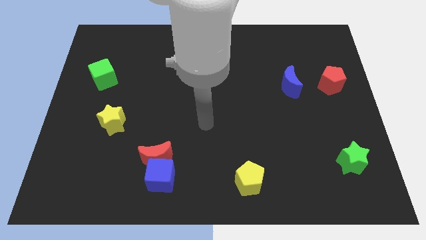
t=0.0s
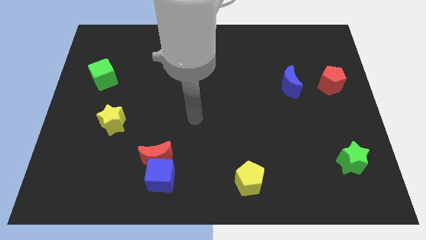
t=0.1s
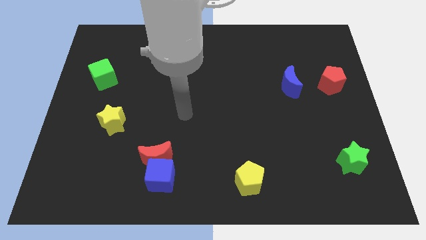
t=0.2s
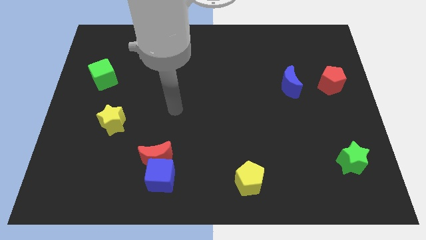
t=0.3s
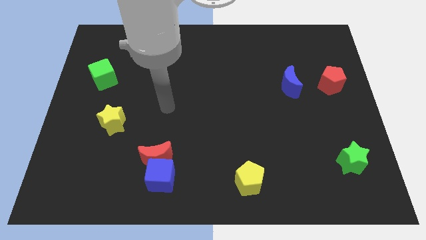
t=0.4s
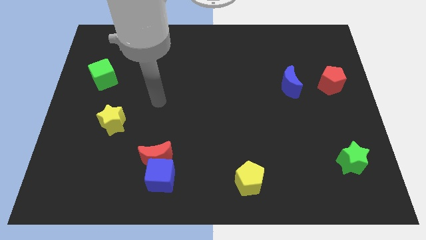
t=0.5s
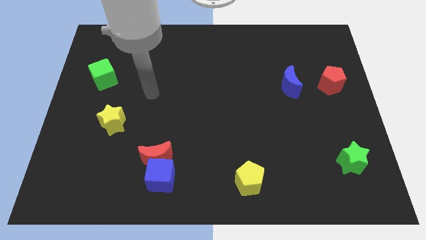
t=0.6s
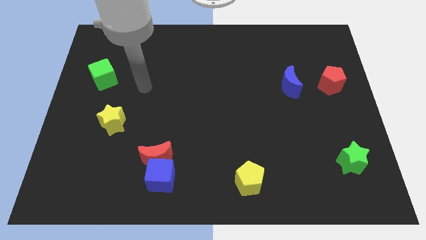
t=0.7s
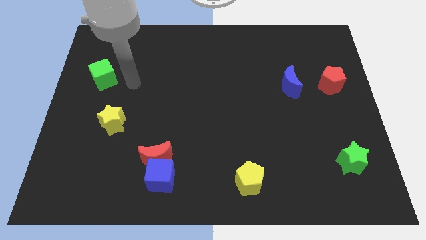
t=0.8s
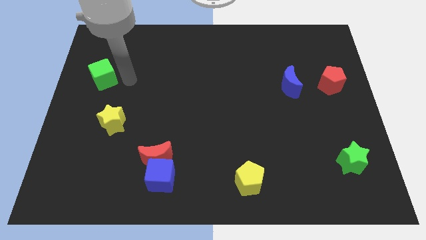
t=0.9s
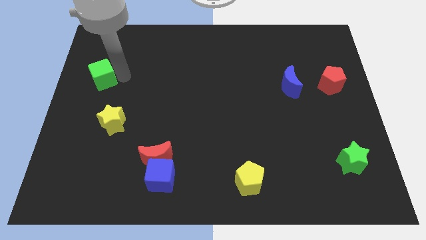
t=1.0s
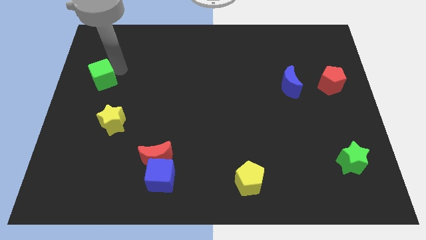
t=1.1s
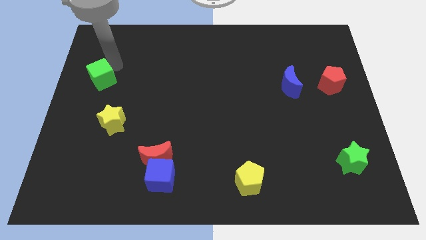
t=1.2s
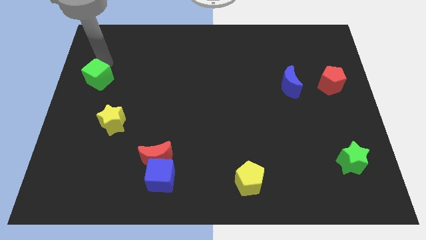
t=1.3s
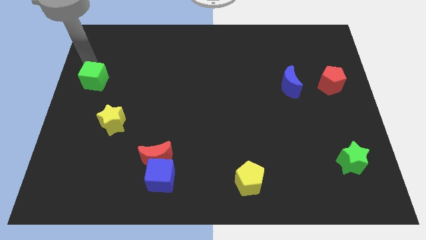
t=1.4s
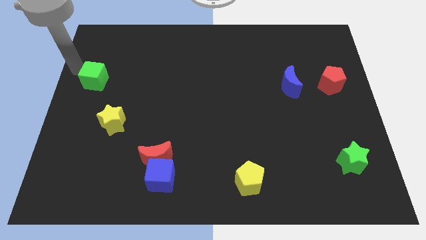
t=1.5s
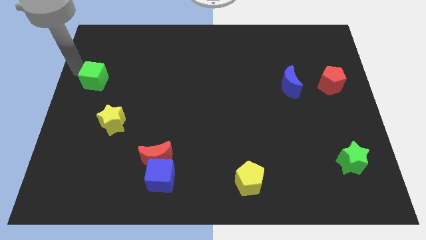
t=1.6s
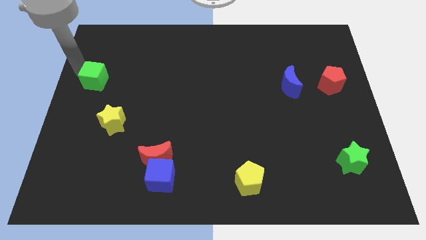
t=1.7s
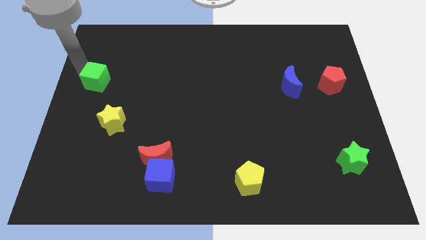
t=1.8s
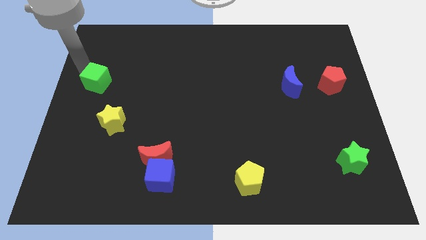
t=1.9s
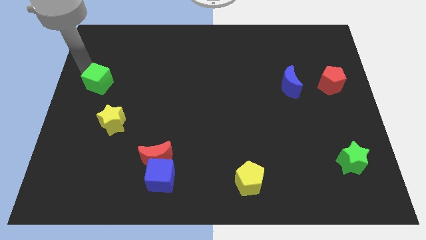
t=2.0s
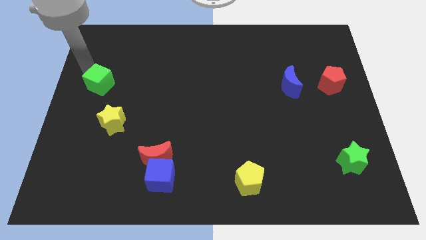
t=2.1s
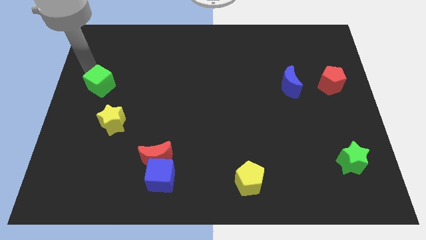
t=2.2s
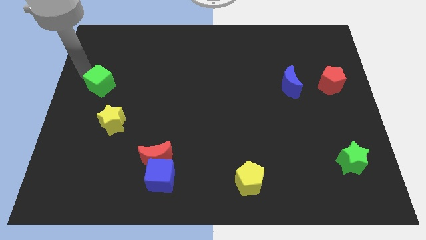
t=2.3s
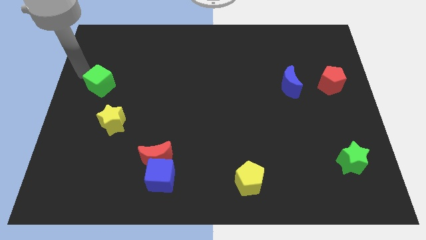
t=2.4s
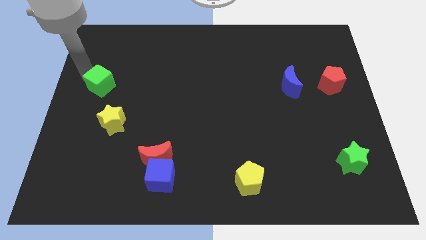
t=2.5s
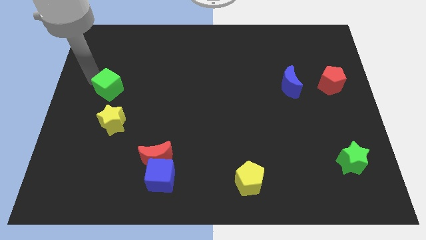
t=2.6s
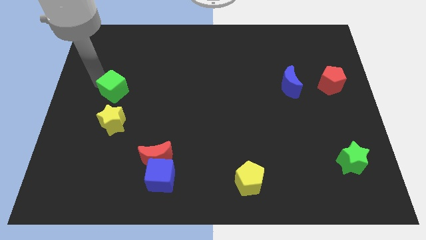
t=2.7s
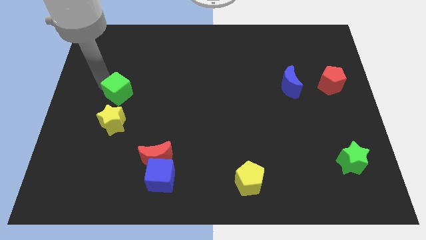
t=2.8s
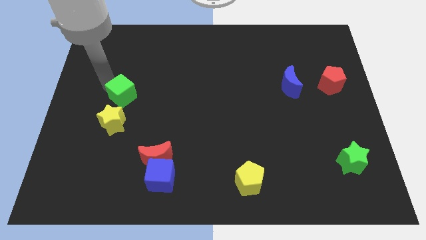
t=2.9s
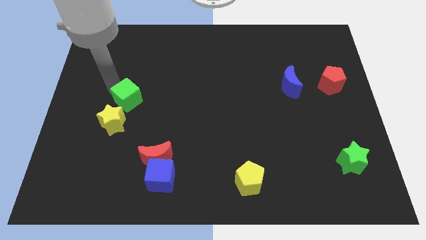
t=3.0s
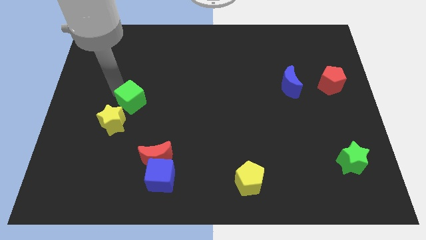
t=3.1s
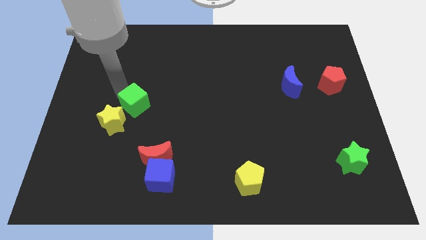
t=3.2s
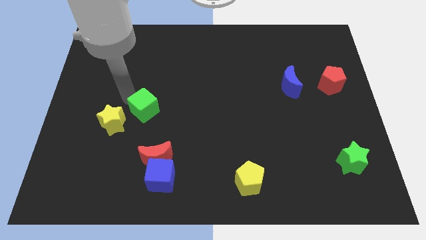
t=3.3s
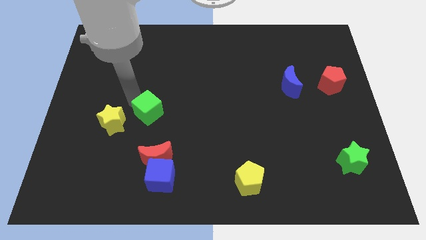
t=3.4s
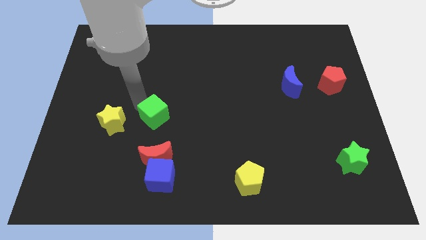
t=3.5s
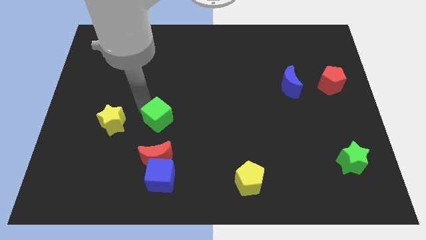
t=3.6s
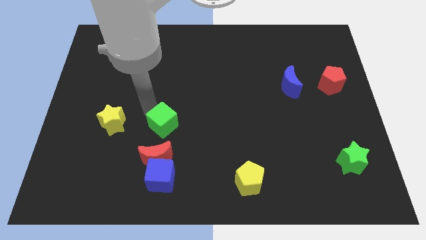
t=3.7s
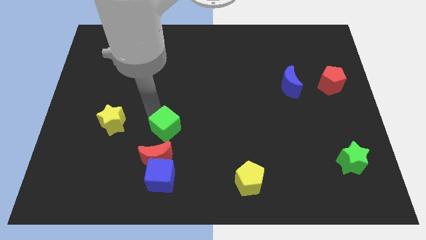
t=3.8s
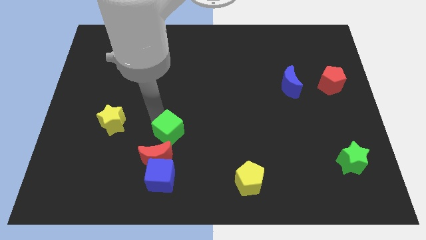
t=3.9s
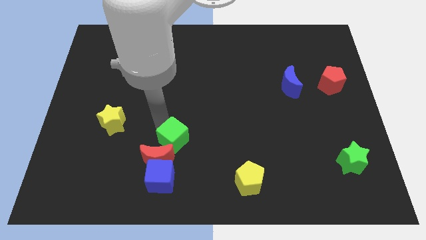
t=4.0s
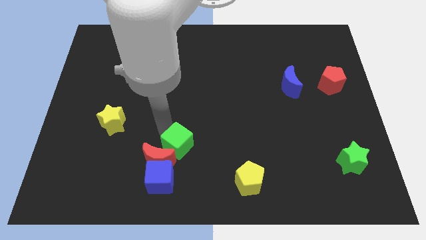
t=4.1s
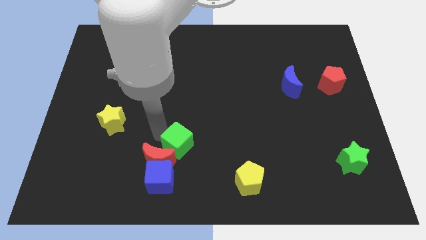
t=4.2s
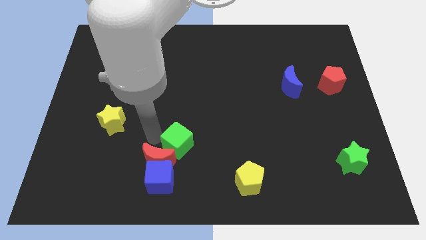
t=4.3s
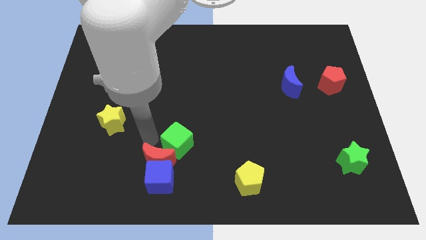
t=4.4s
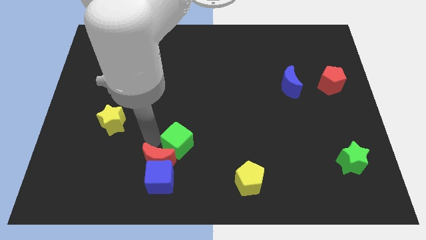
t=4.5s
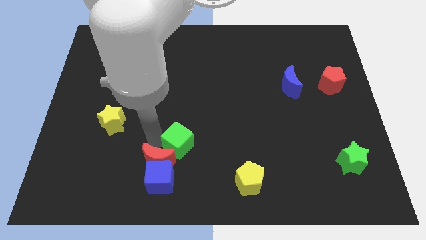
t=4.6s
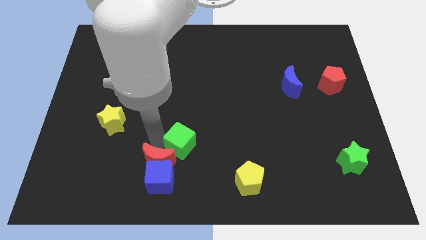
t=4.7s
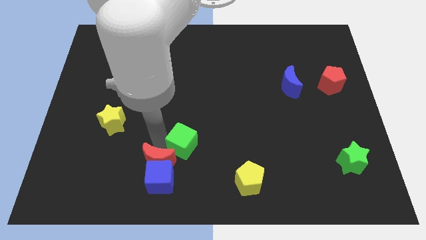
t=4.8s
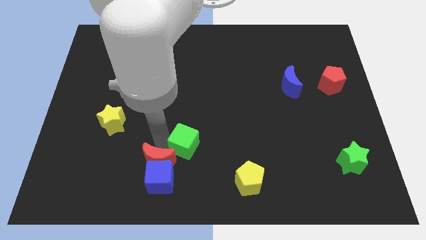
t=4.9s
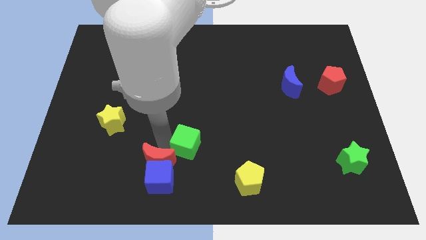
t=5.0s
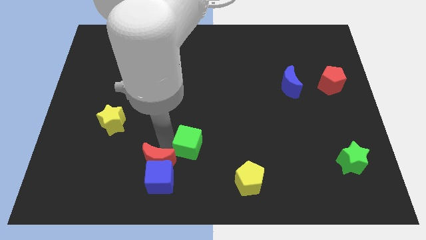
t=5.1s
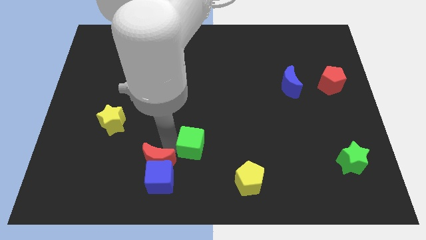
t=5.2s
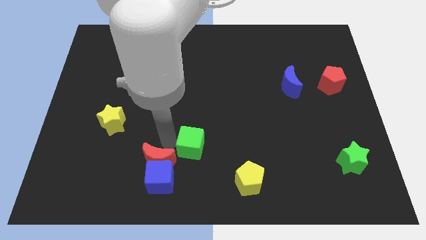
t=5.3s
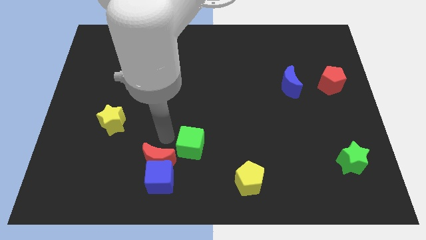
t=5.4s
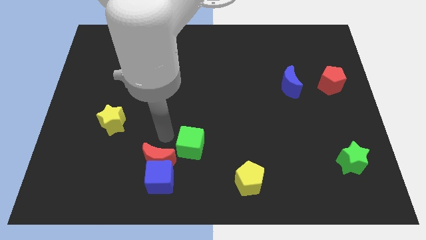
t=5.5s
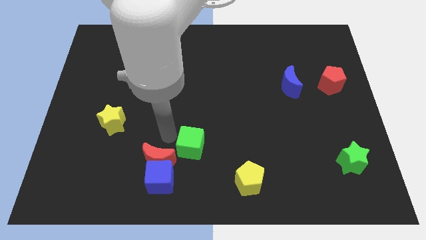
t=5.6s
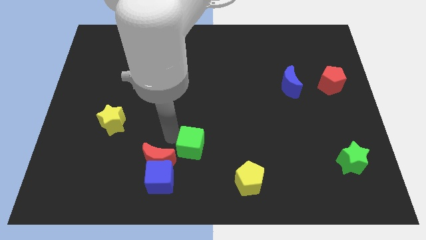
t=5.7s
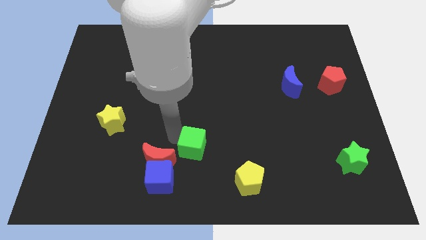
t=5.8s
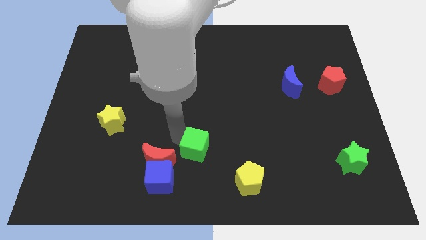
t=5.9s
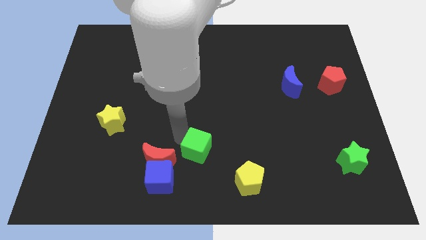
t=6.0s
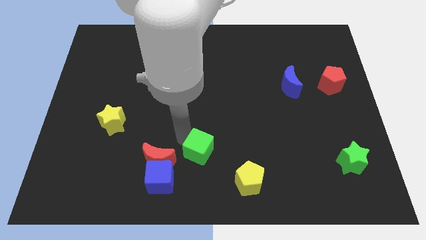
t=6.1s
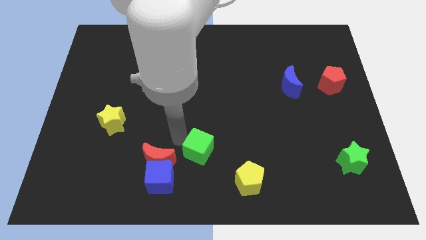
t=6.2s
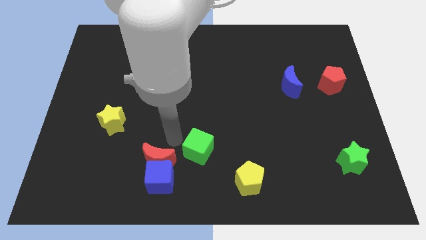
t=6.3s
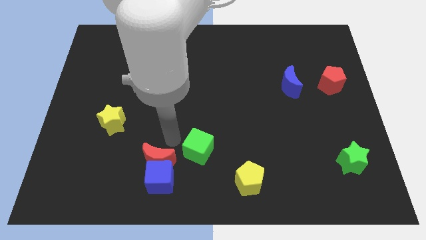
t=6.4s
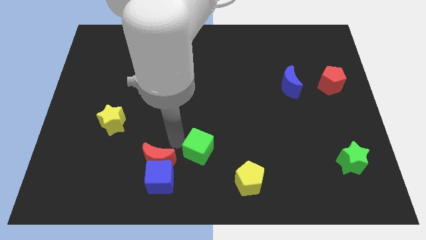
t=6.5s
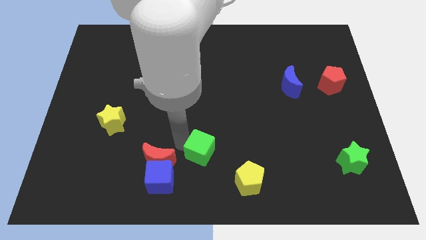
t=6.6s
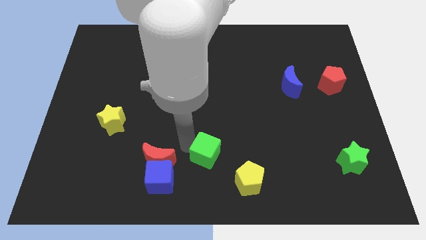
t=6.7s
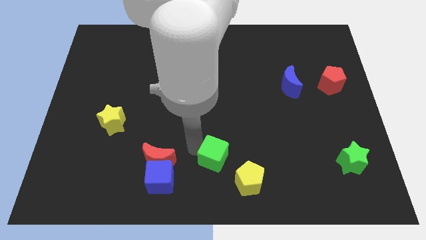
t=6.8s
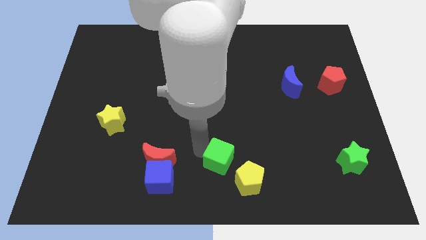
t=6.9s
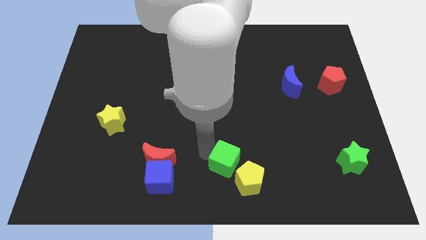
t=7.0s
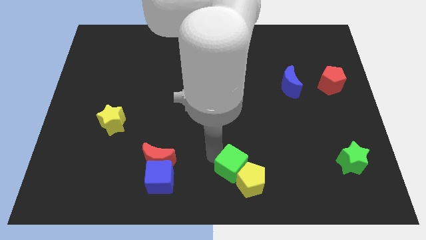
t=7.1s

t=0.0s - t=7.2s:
move the green cube towards the yellow pentagon

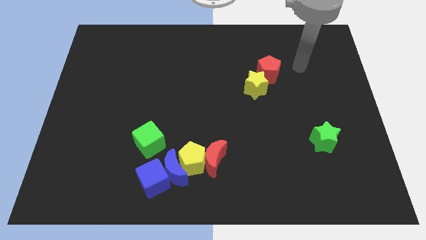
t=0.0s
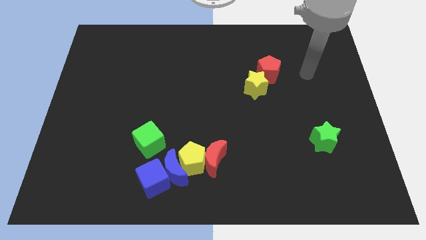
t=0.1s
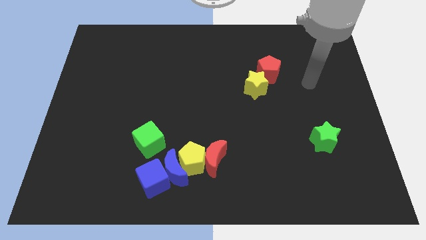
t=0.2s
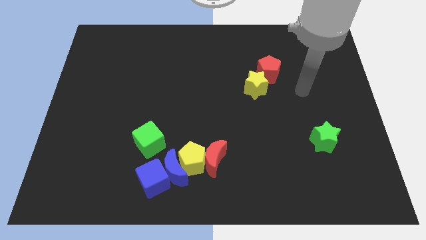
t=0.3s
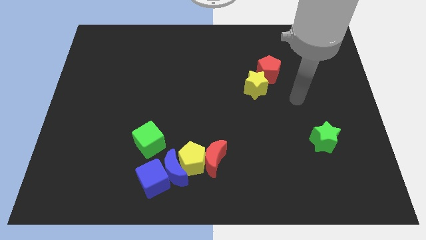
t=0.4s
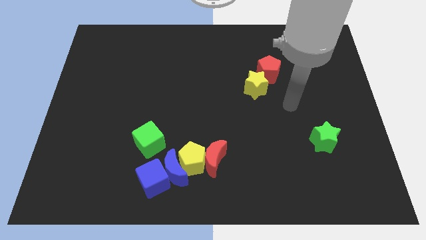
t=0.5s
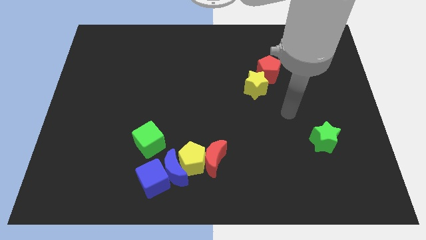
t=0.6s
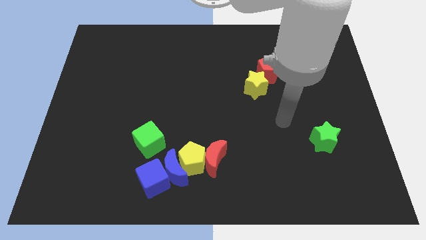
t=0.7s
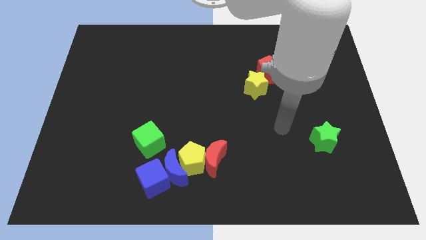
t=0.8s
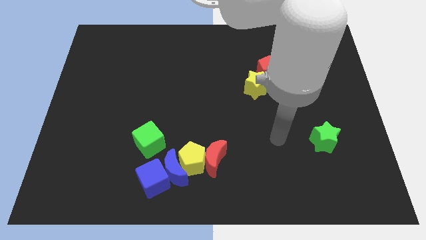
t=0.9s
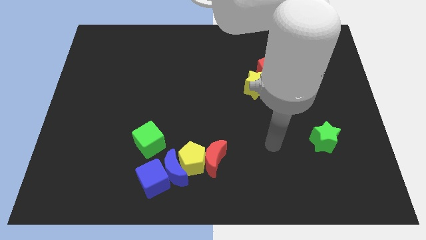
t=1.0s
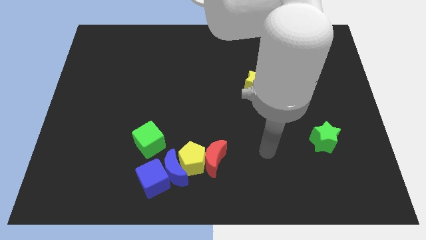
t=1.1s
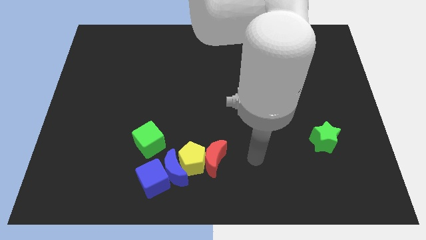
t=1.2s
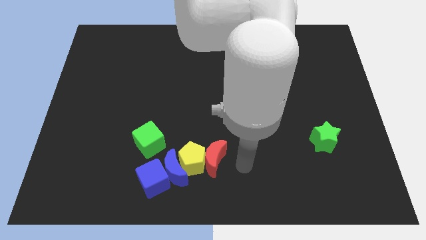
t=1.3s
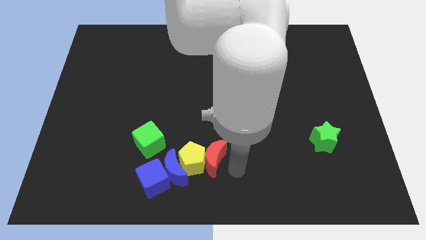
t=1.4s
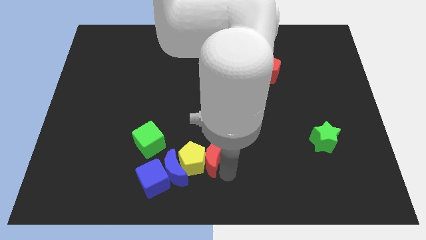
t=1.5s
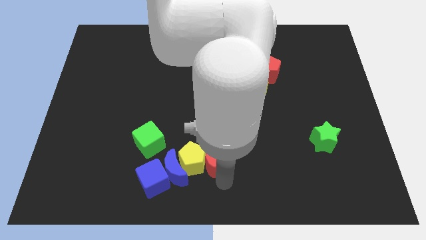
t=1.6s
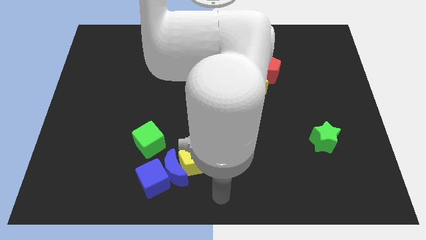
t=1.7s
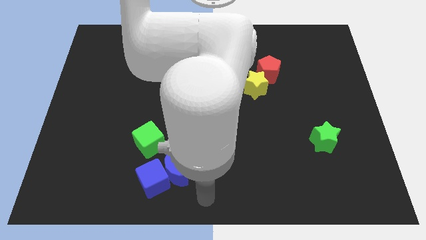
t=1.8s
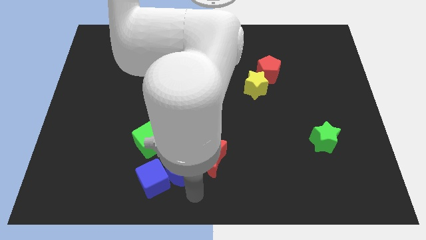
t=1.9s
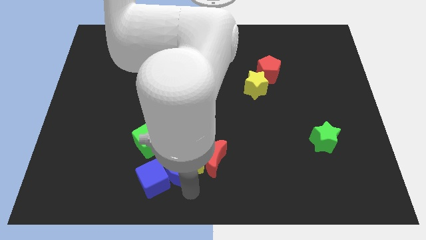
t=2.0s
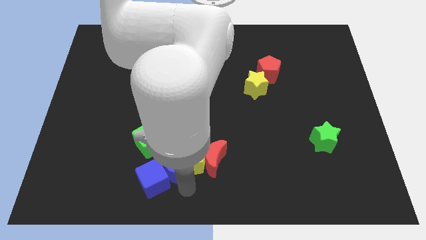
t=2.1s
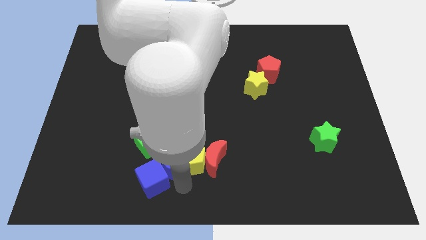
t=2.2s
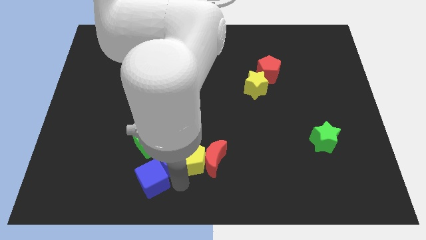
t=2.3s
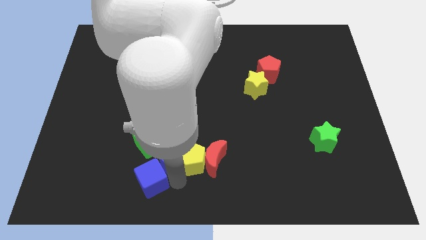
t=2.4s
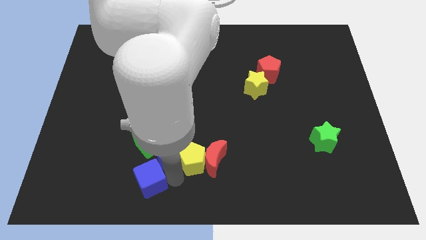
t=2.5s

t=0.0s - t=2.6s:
push the blue moon close to the green cube
